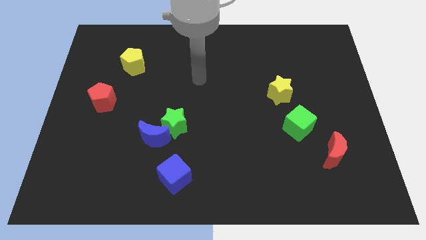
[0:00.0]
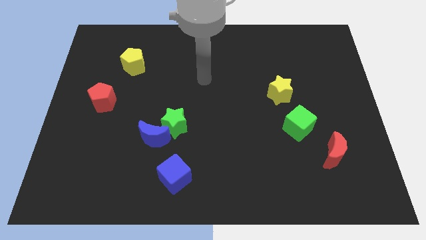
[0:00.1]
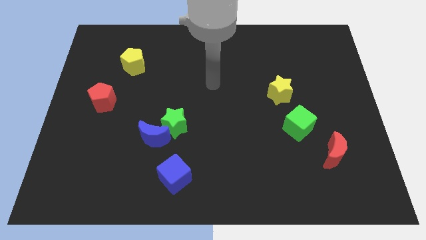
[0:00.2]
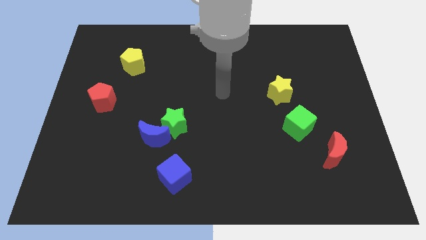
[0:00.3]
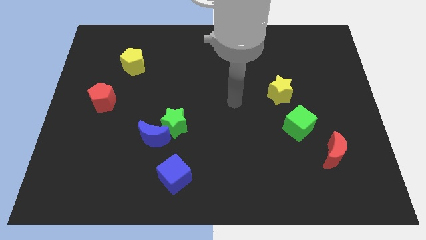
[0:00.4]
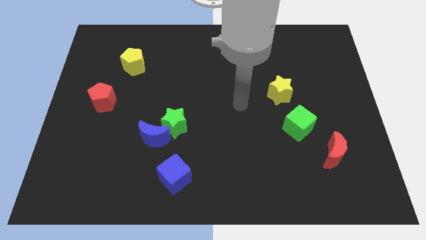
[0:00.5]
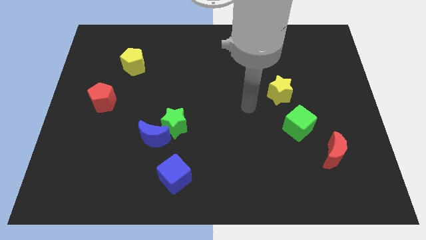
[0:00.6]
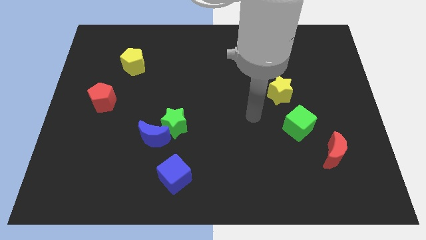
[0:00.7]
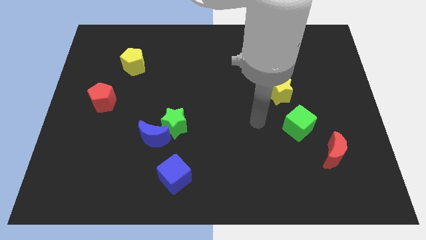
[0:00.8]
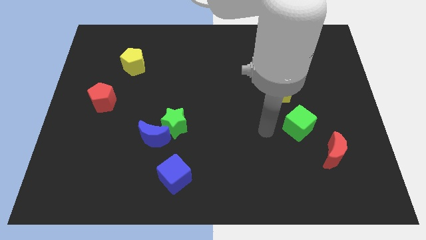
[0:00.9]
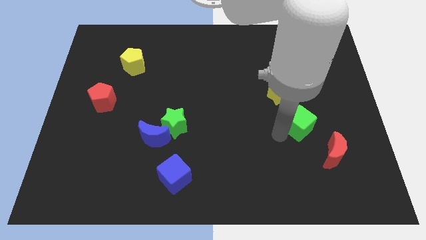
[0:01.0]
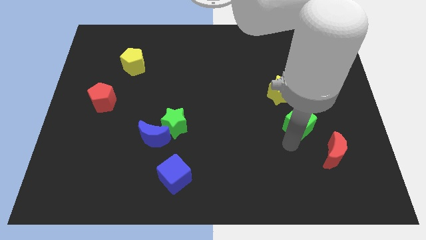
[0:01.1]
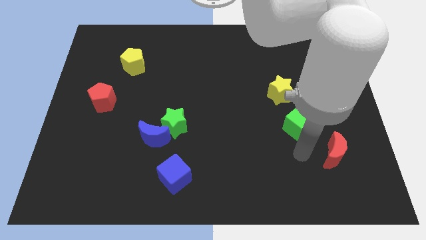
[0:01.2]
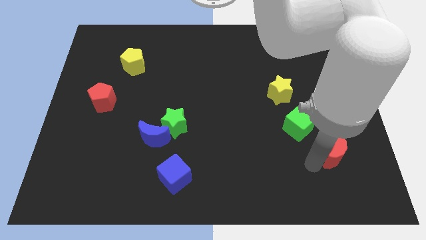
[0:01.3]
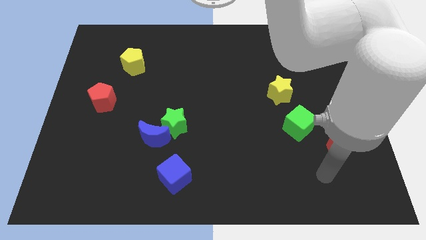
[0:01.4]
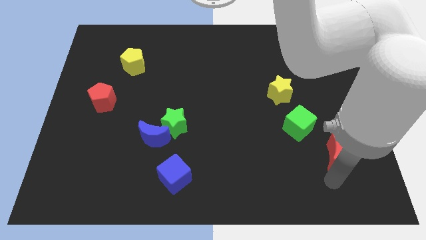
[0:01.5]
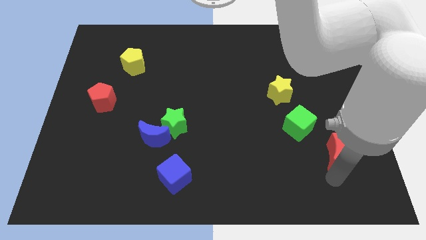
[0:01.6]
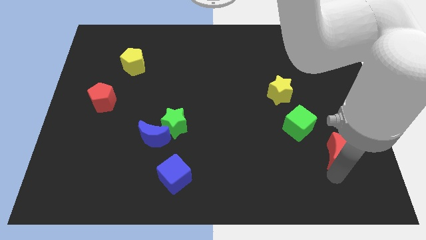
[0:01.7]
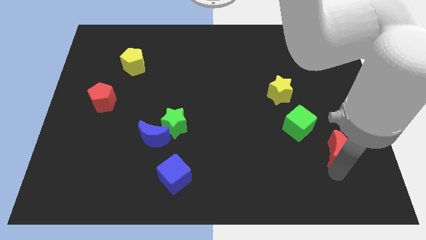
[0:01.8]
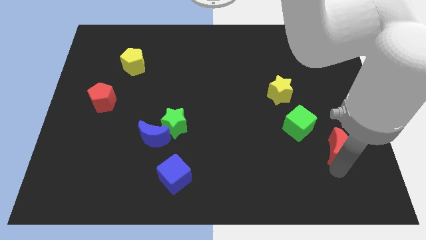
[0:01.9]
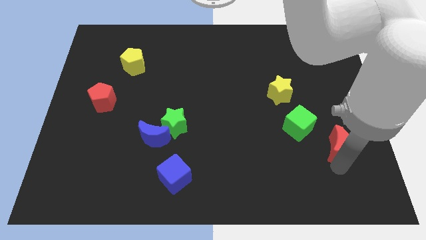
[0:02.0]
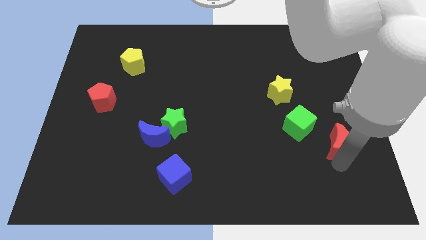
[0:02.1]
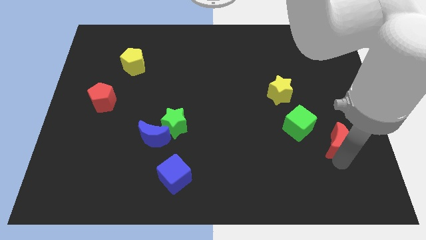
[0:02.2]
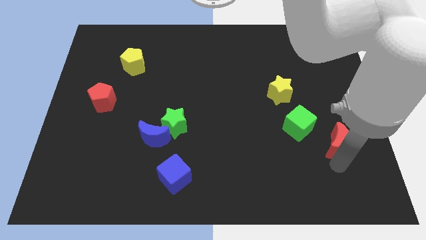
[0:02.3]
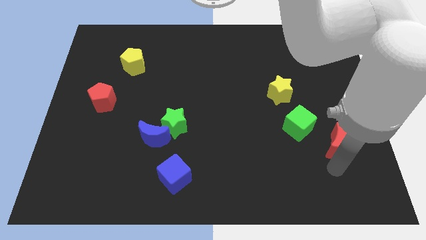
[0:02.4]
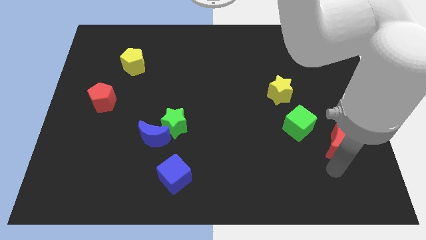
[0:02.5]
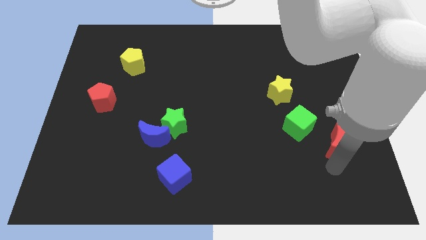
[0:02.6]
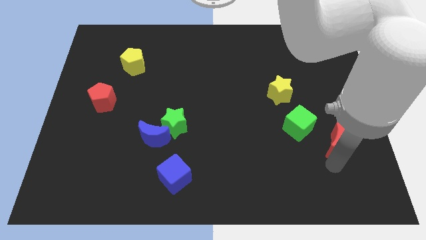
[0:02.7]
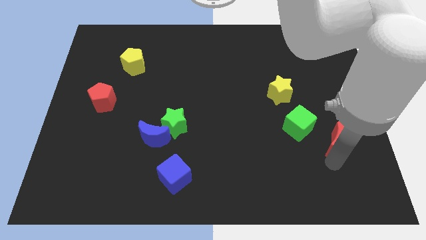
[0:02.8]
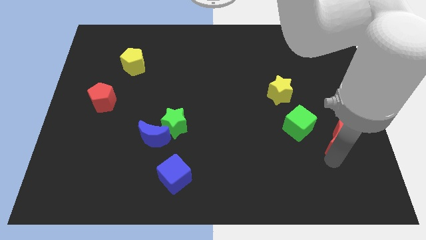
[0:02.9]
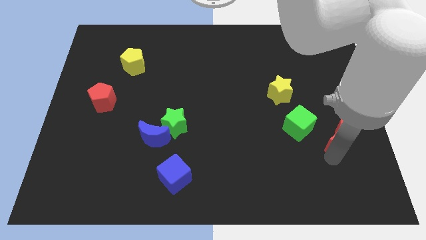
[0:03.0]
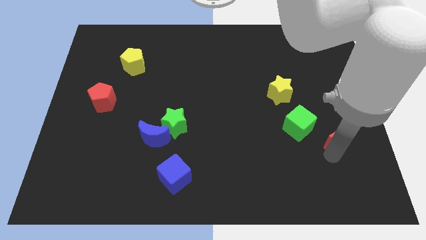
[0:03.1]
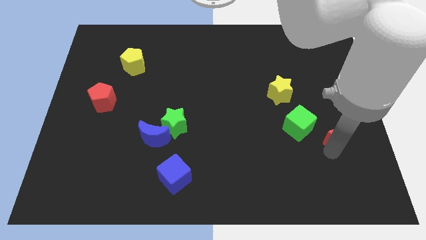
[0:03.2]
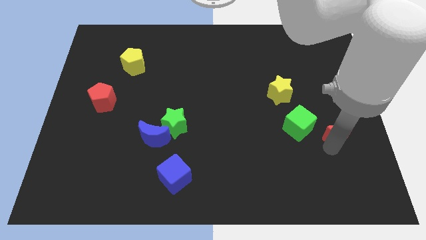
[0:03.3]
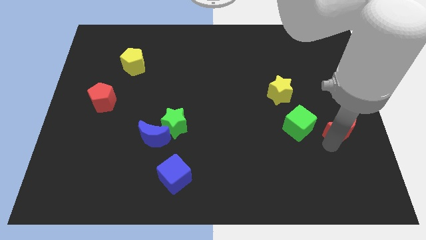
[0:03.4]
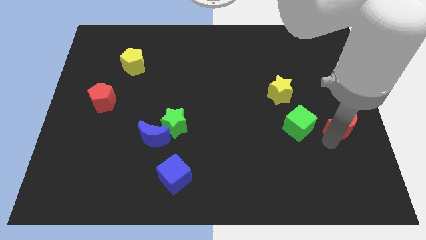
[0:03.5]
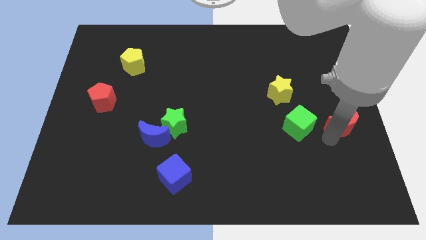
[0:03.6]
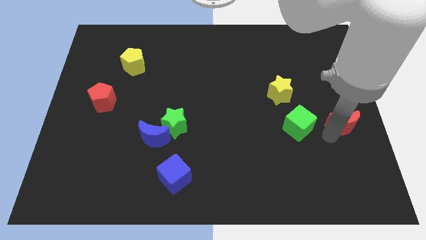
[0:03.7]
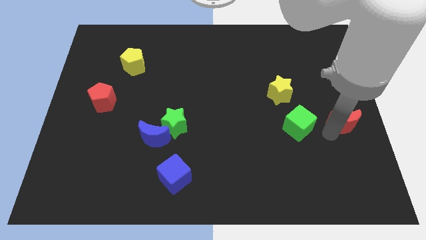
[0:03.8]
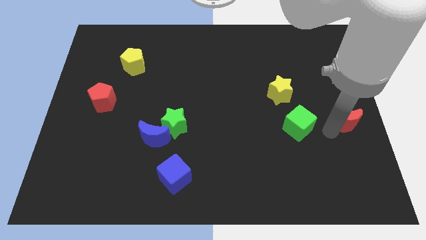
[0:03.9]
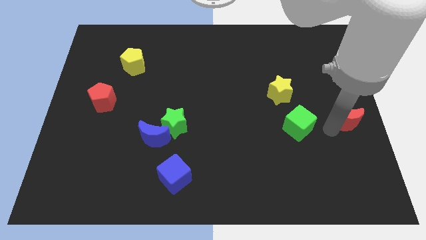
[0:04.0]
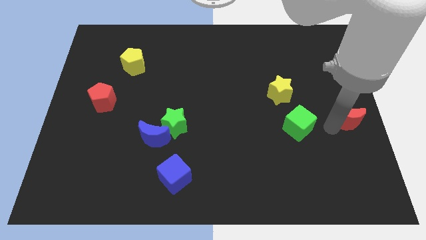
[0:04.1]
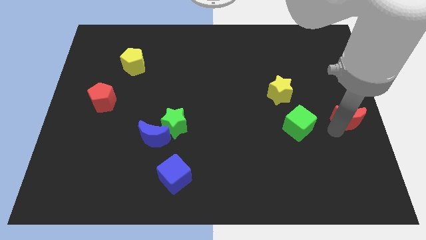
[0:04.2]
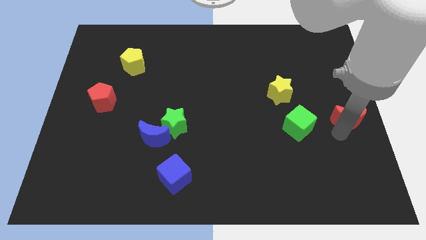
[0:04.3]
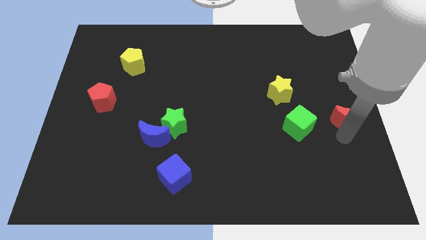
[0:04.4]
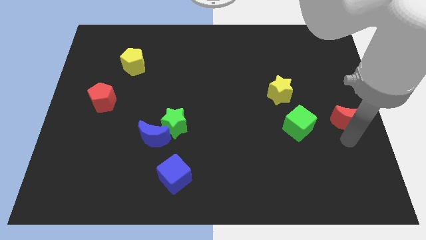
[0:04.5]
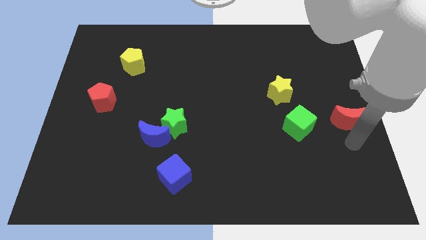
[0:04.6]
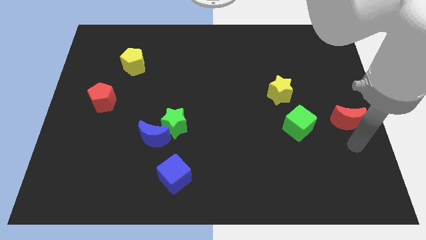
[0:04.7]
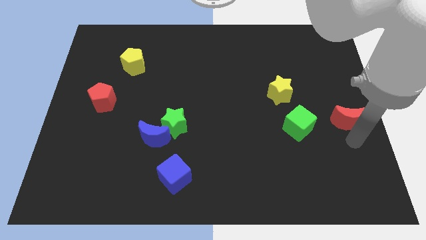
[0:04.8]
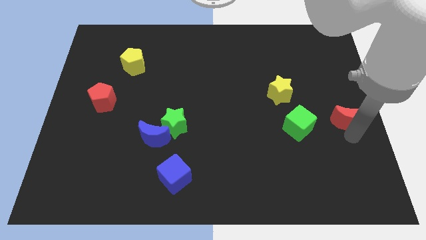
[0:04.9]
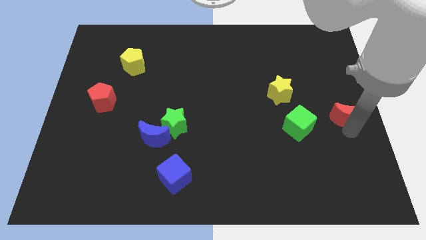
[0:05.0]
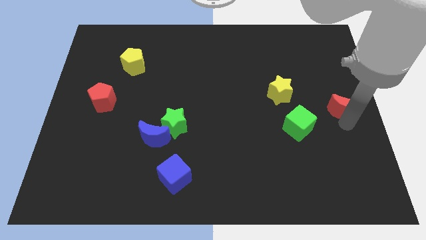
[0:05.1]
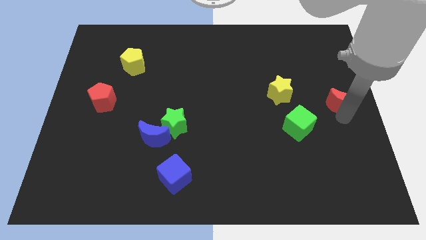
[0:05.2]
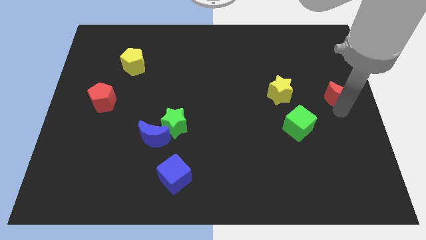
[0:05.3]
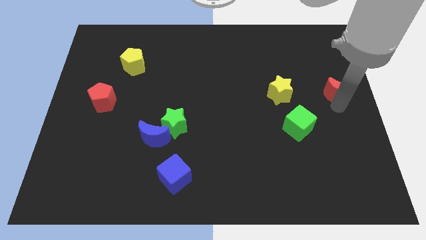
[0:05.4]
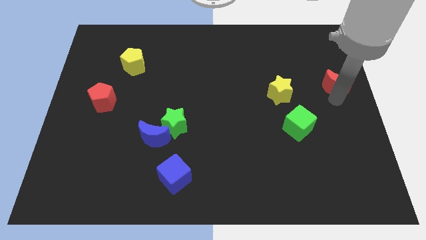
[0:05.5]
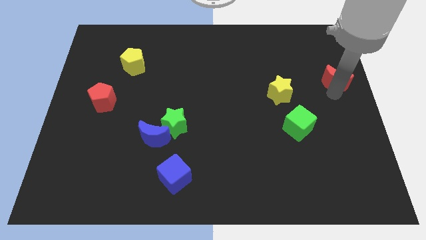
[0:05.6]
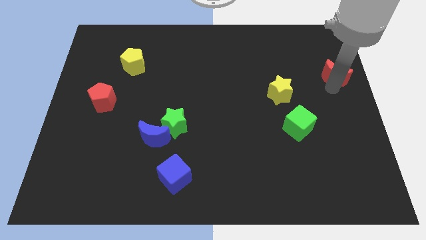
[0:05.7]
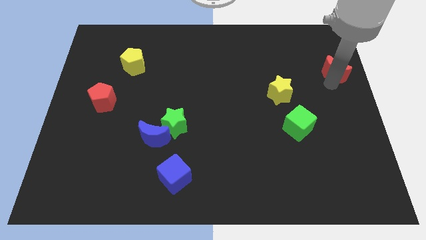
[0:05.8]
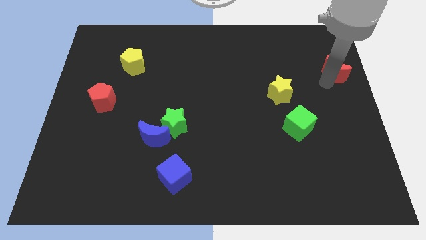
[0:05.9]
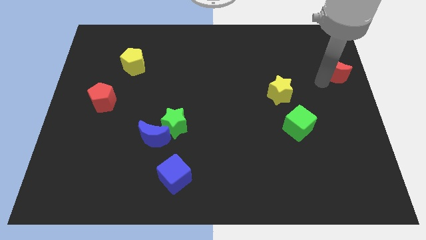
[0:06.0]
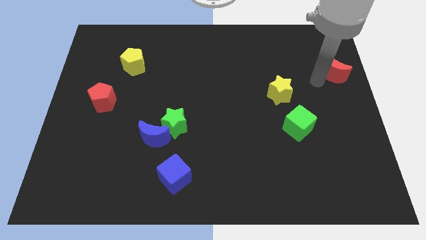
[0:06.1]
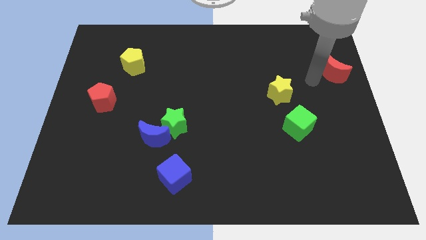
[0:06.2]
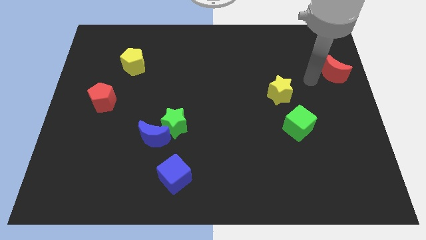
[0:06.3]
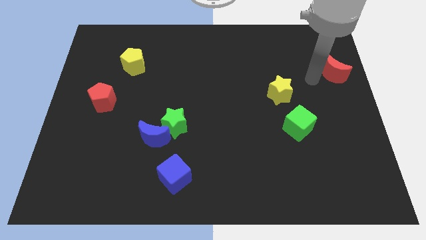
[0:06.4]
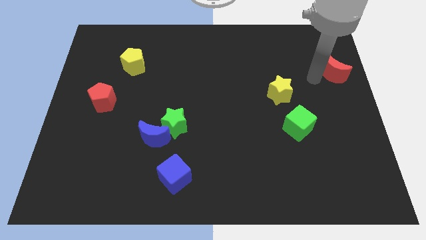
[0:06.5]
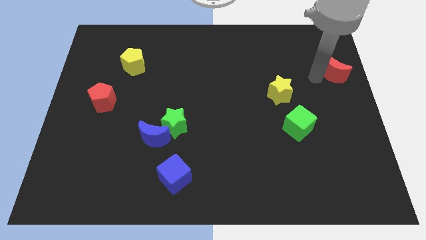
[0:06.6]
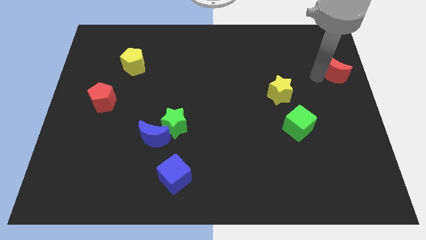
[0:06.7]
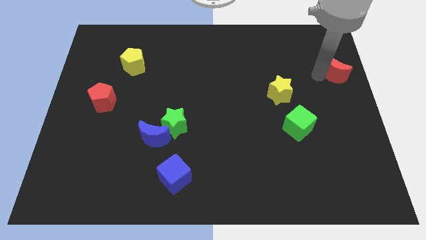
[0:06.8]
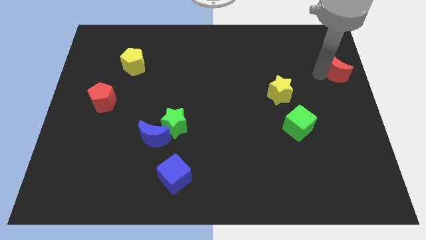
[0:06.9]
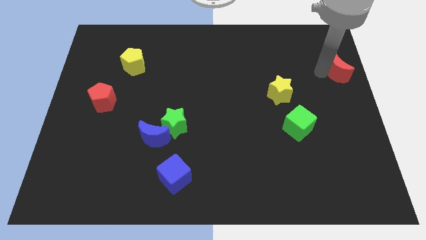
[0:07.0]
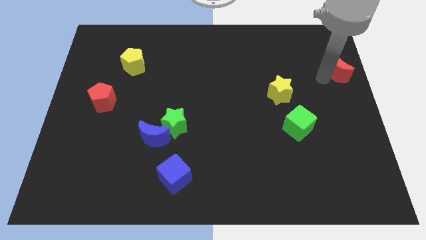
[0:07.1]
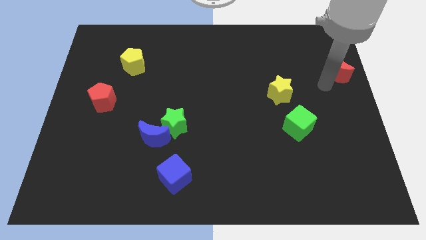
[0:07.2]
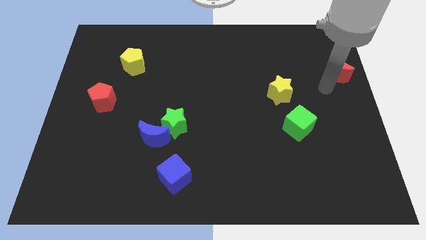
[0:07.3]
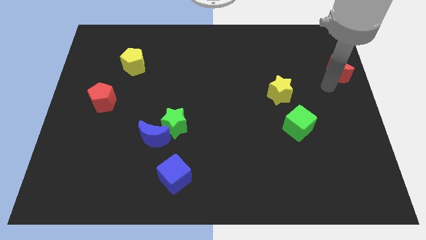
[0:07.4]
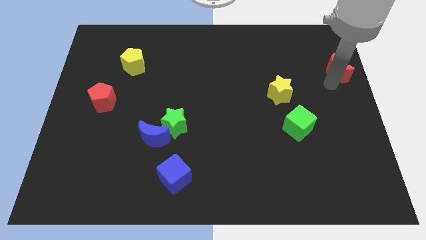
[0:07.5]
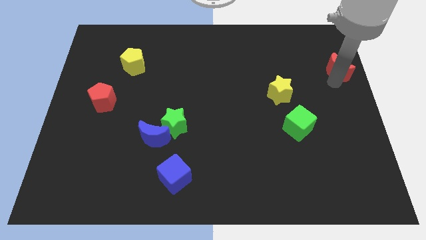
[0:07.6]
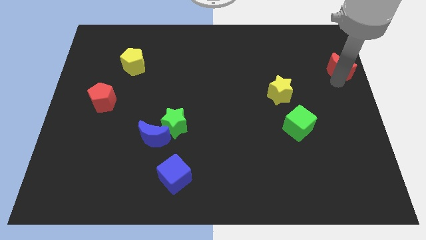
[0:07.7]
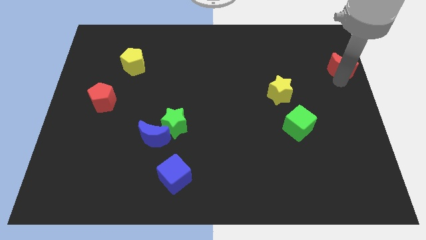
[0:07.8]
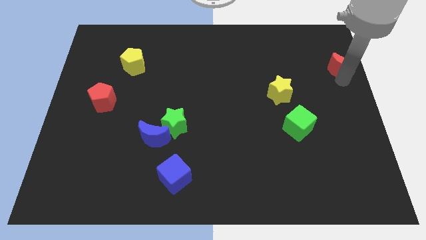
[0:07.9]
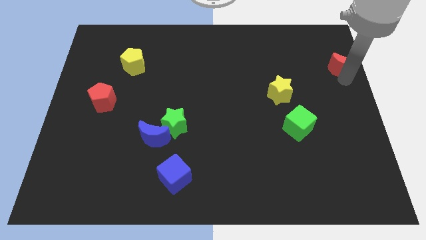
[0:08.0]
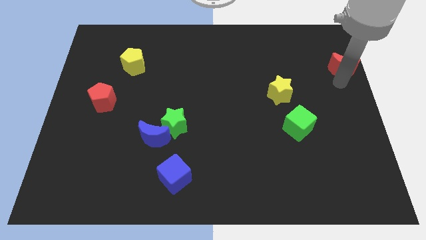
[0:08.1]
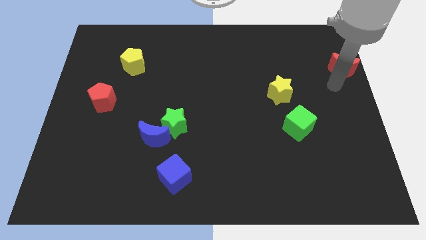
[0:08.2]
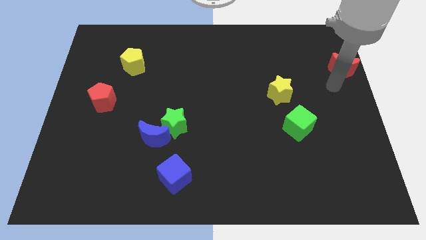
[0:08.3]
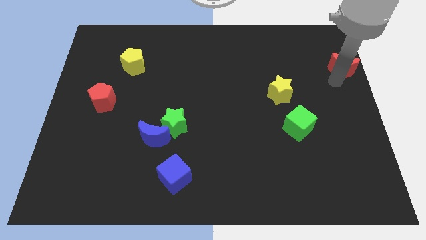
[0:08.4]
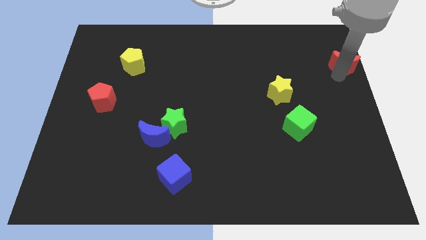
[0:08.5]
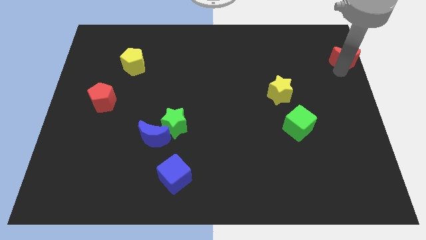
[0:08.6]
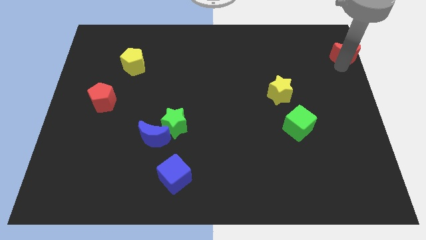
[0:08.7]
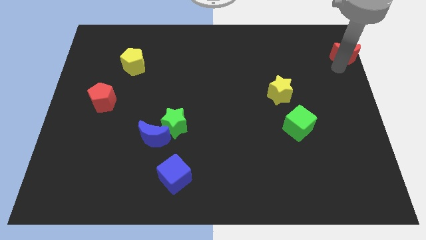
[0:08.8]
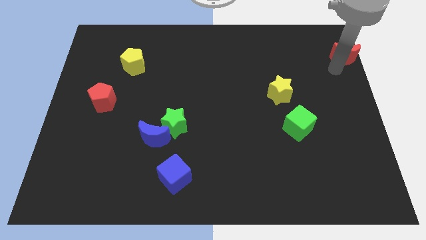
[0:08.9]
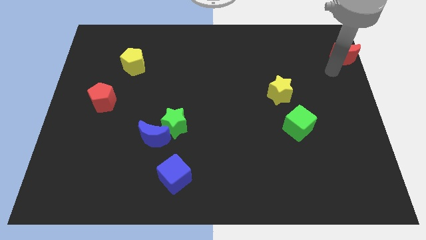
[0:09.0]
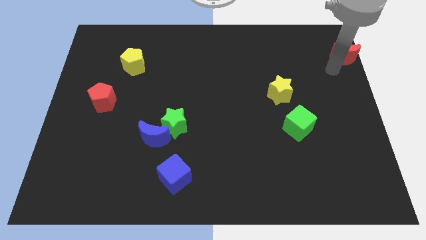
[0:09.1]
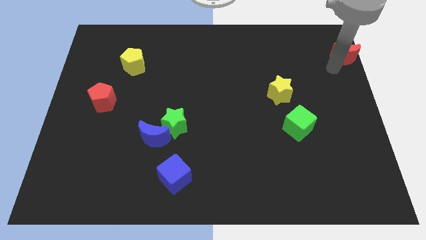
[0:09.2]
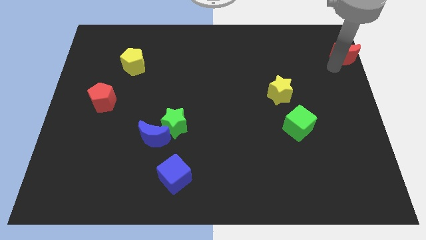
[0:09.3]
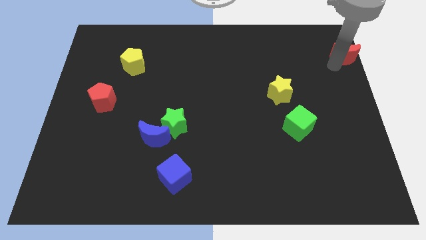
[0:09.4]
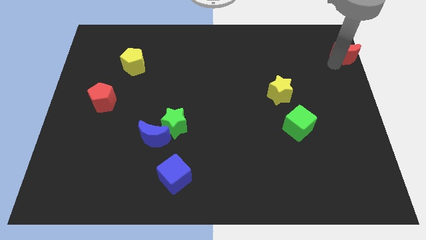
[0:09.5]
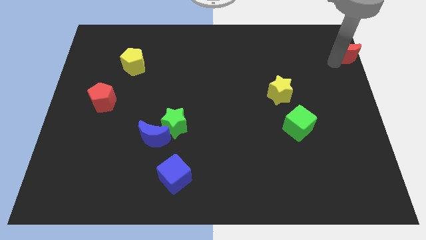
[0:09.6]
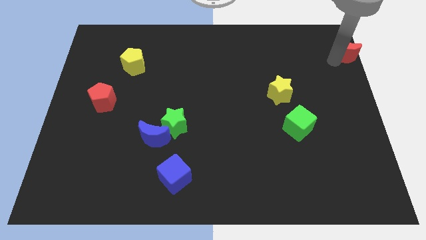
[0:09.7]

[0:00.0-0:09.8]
put the red moon to the upper right corner
